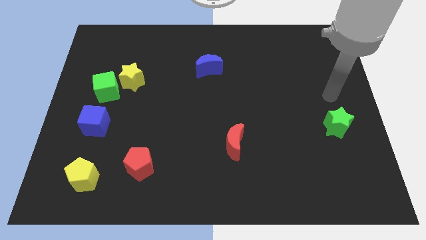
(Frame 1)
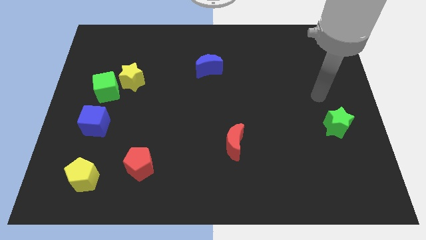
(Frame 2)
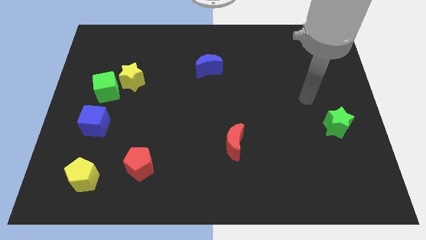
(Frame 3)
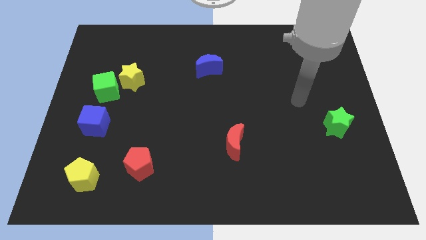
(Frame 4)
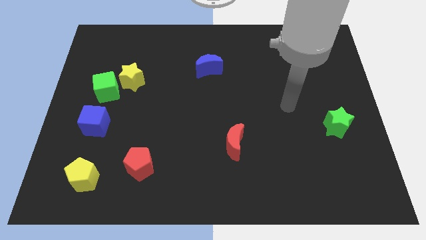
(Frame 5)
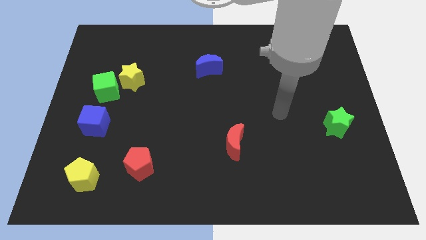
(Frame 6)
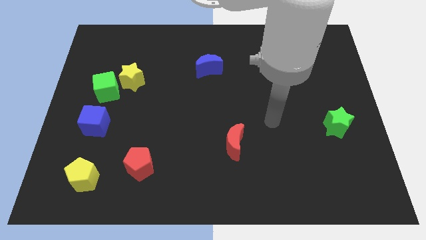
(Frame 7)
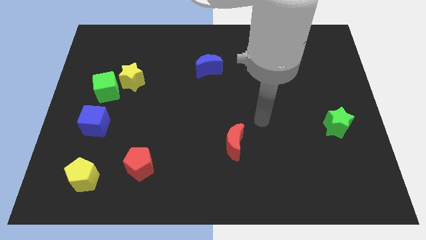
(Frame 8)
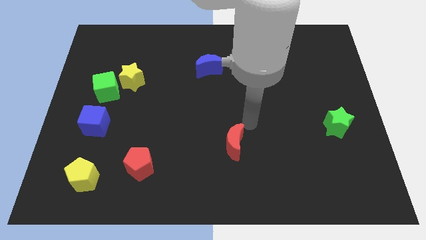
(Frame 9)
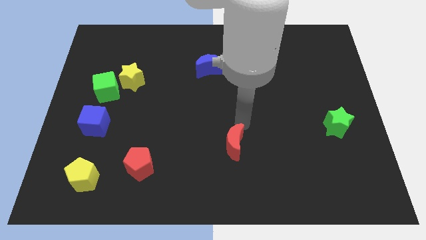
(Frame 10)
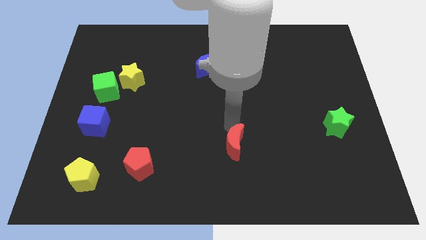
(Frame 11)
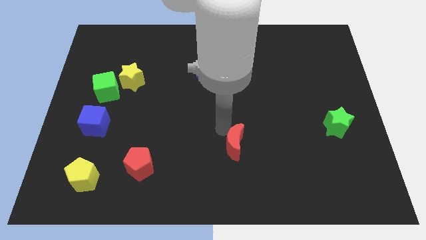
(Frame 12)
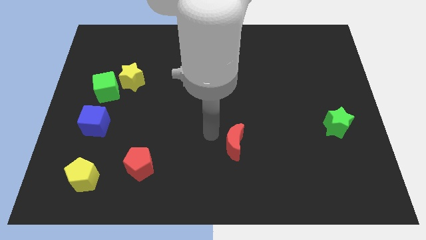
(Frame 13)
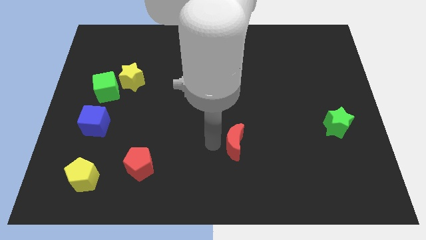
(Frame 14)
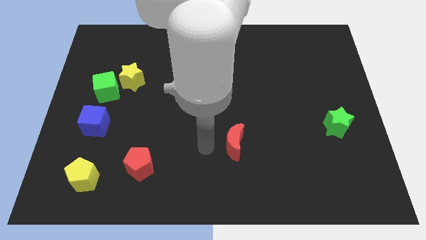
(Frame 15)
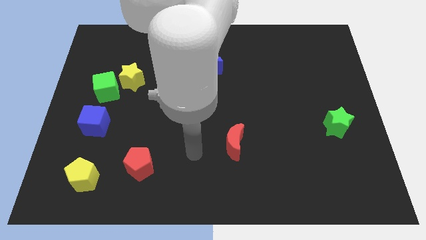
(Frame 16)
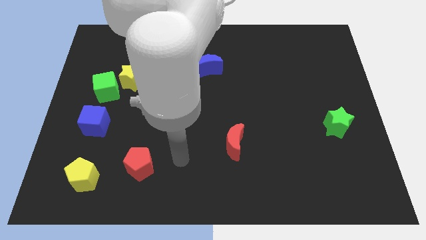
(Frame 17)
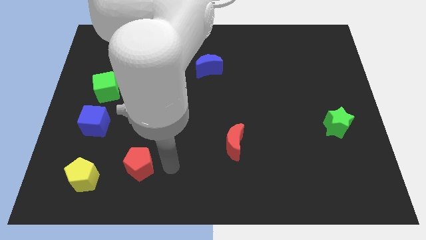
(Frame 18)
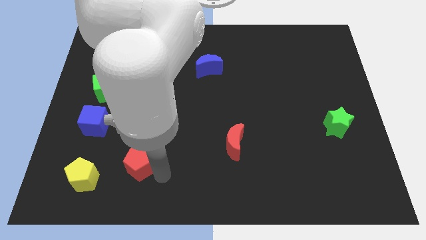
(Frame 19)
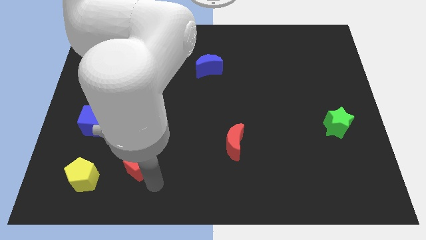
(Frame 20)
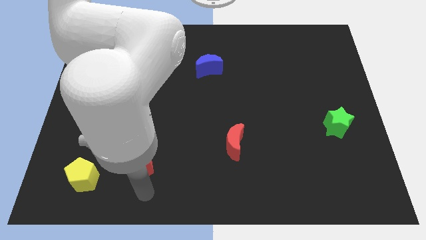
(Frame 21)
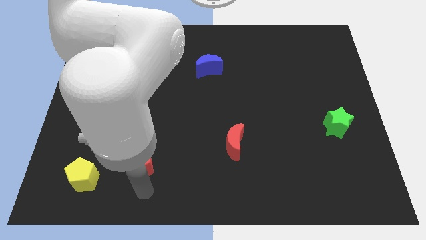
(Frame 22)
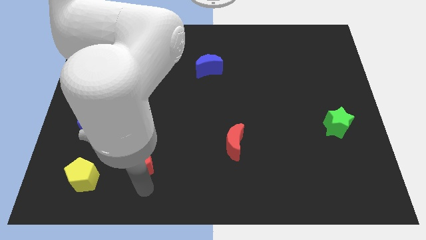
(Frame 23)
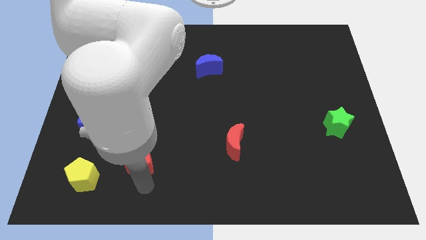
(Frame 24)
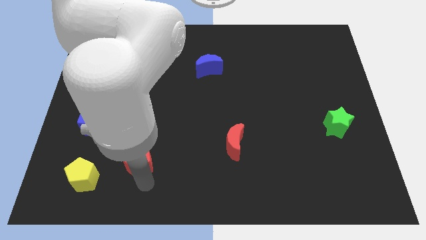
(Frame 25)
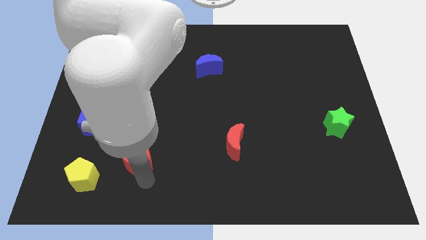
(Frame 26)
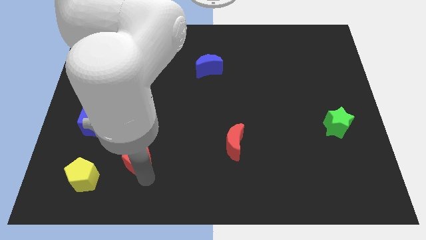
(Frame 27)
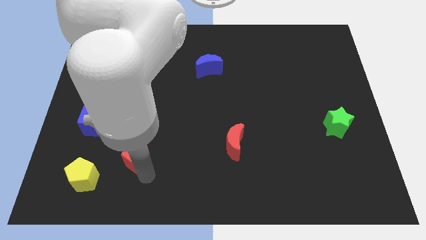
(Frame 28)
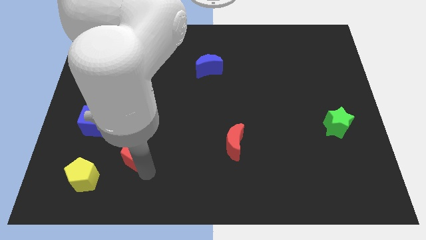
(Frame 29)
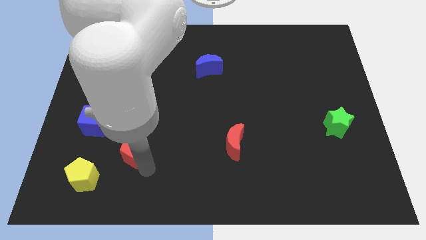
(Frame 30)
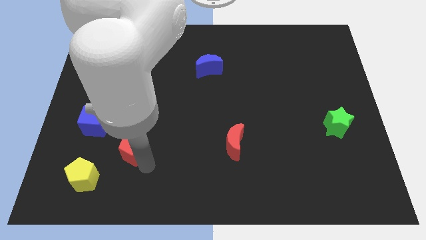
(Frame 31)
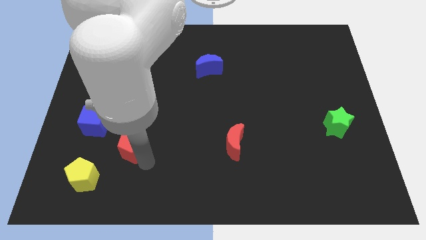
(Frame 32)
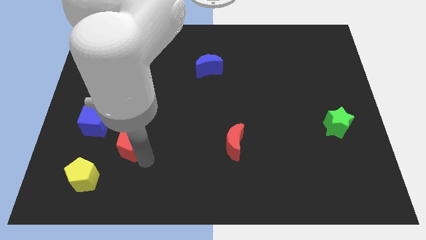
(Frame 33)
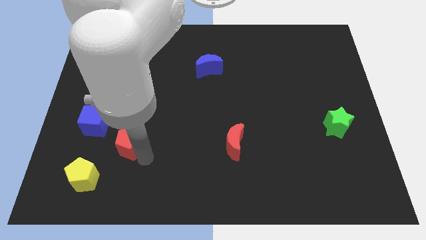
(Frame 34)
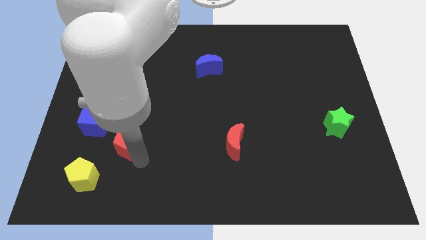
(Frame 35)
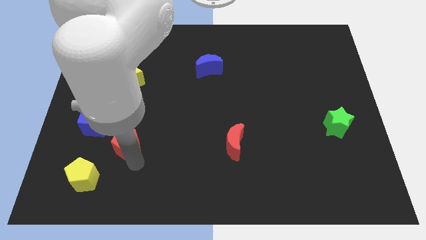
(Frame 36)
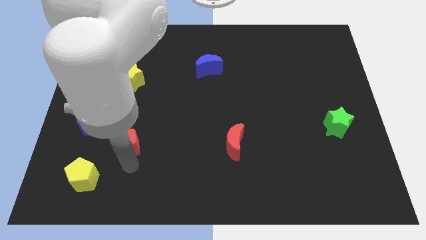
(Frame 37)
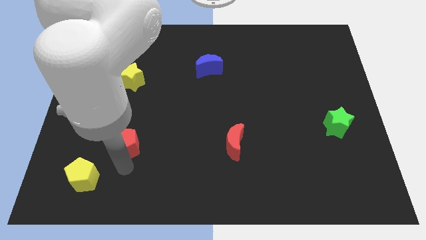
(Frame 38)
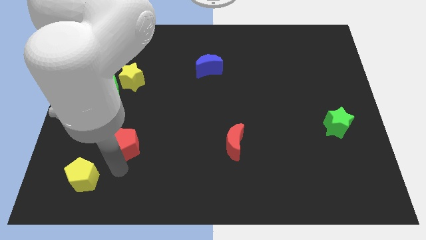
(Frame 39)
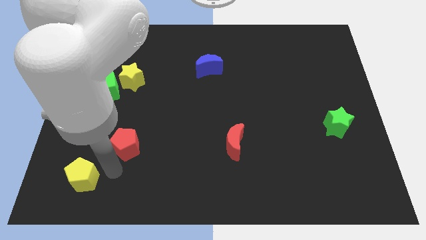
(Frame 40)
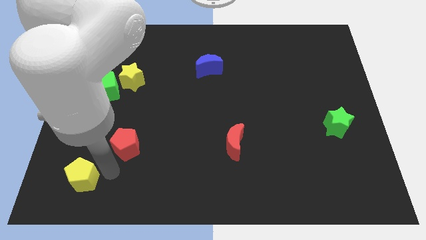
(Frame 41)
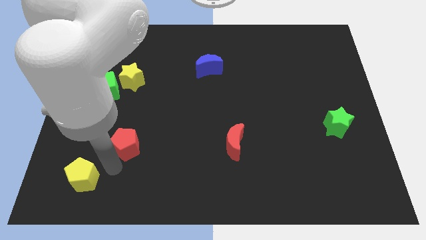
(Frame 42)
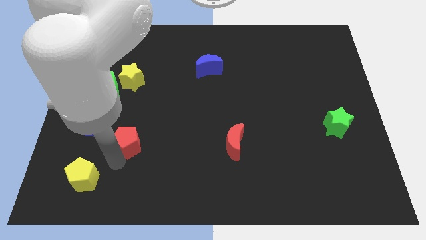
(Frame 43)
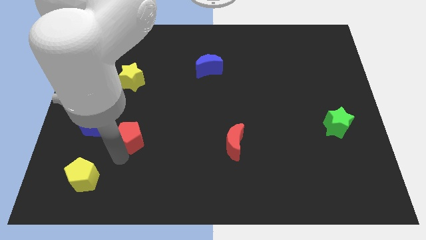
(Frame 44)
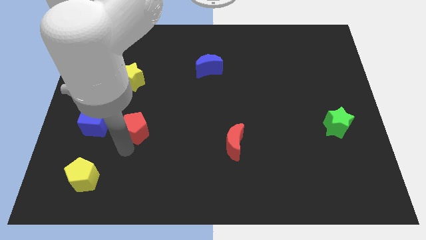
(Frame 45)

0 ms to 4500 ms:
move the red pentagon a bit up

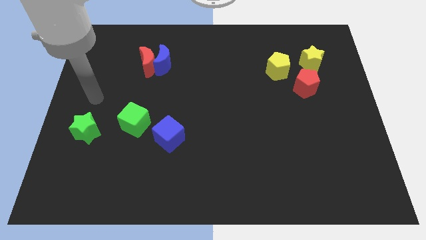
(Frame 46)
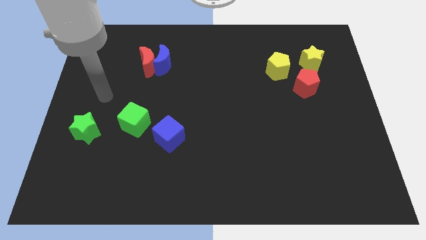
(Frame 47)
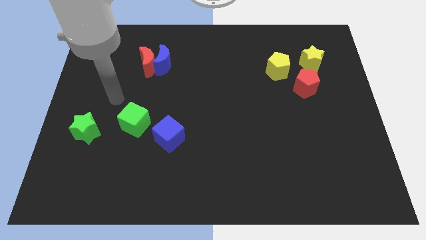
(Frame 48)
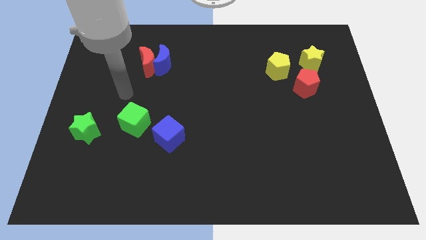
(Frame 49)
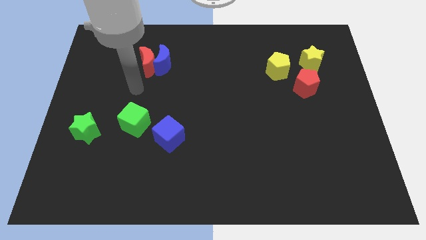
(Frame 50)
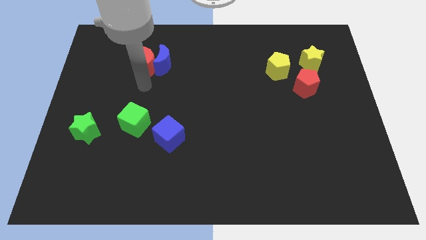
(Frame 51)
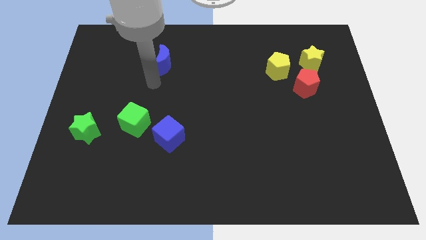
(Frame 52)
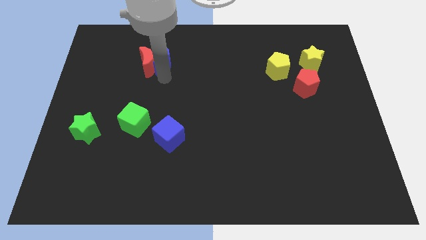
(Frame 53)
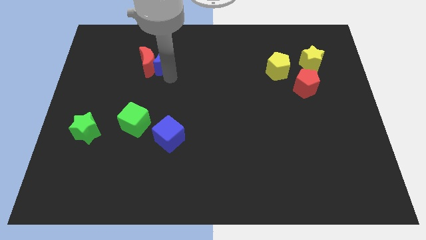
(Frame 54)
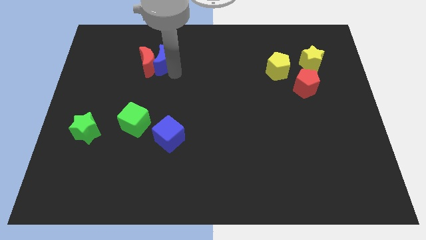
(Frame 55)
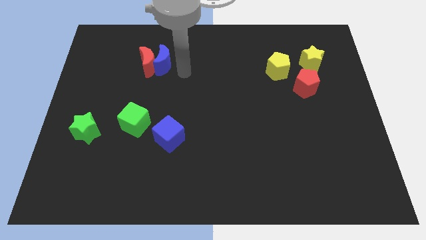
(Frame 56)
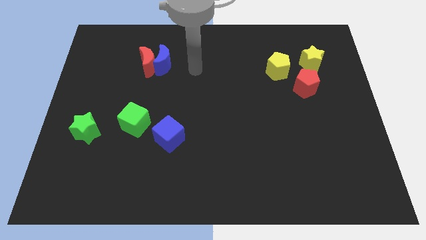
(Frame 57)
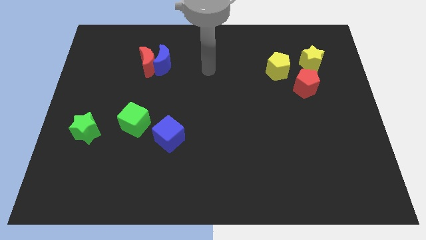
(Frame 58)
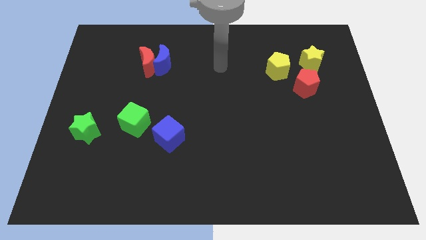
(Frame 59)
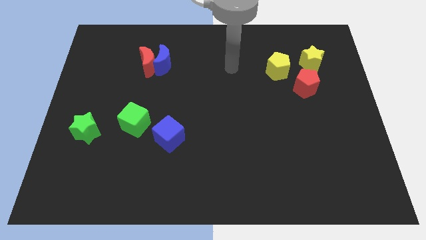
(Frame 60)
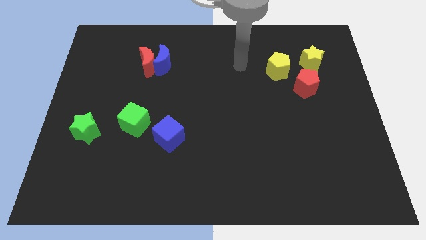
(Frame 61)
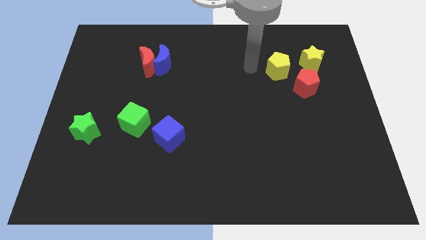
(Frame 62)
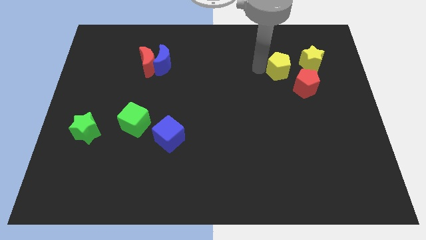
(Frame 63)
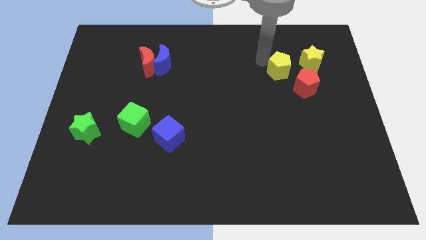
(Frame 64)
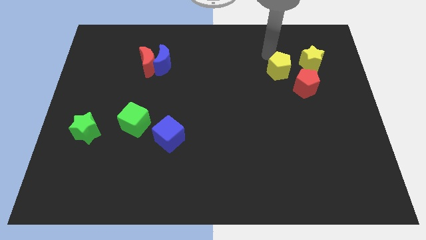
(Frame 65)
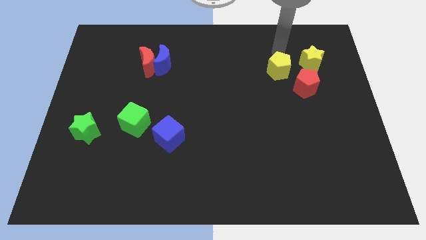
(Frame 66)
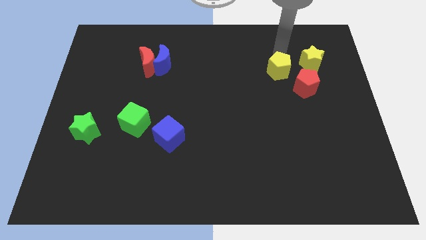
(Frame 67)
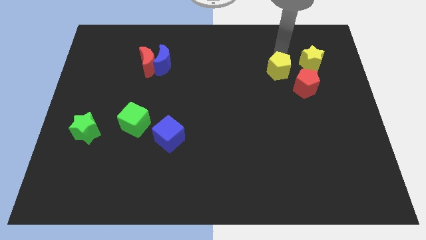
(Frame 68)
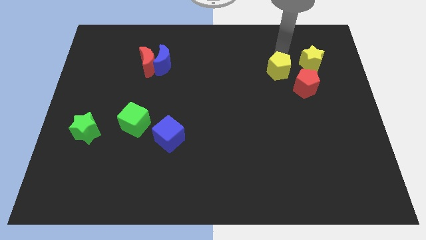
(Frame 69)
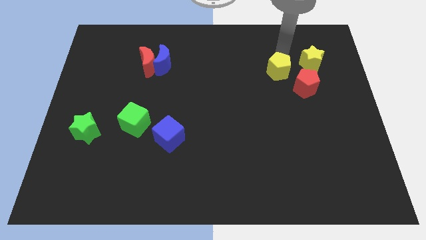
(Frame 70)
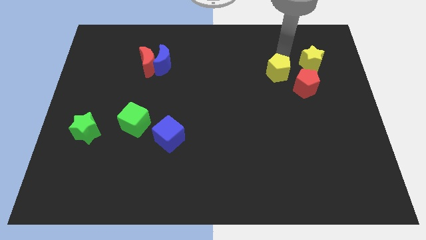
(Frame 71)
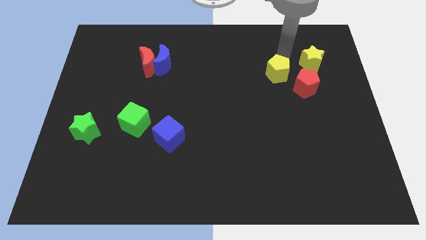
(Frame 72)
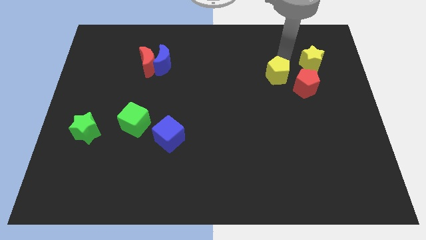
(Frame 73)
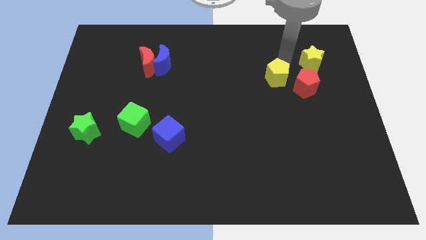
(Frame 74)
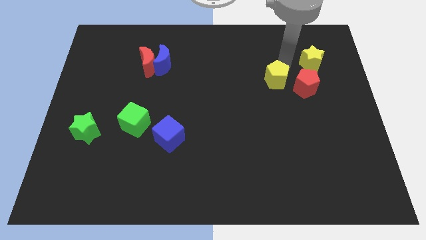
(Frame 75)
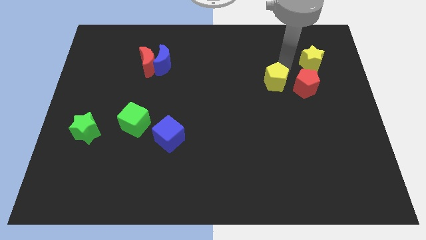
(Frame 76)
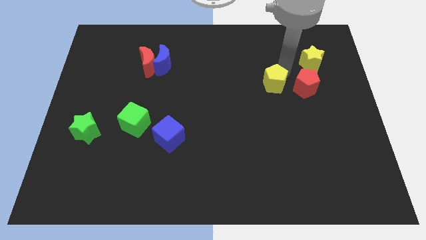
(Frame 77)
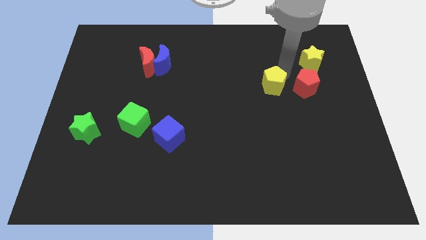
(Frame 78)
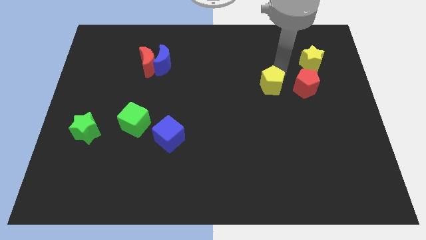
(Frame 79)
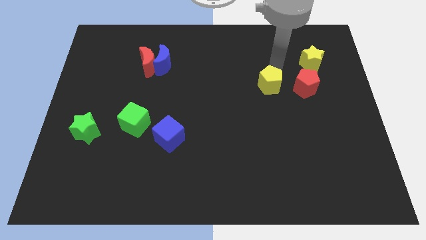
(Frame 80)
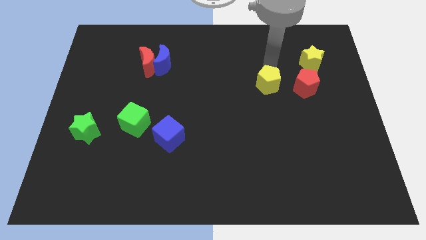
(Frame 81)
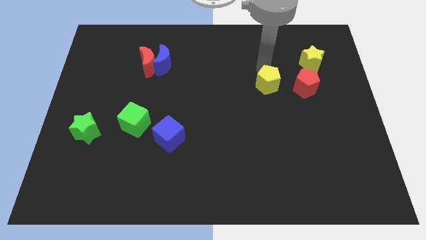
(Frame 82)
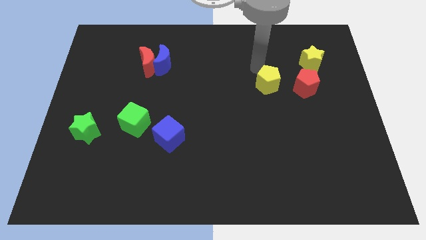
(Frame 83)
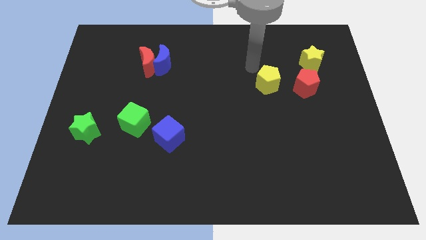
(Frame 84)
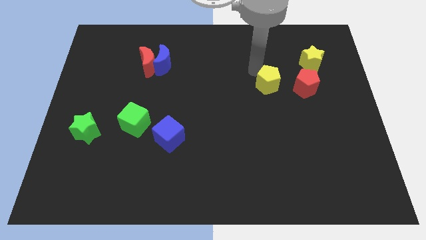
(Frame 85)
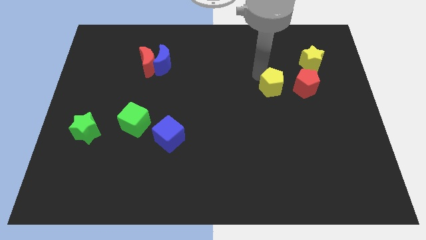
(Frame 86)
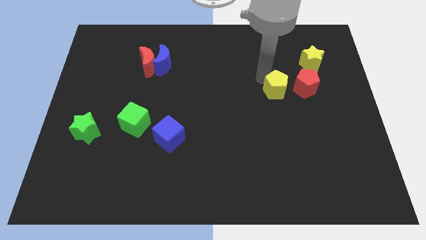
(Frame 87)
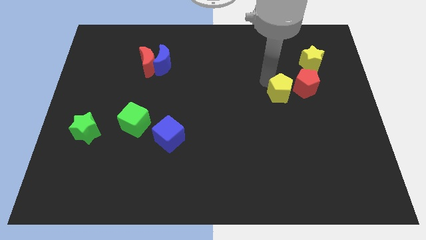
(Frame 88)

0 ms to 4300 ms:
push the yellow pentagon a little downwards
